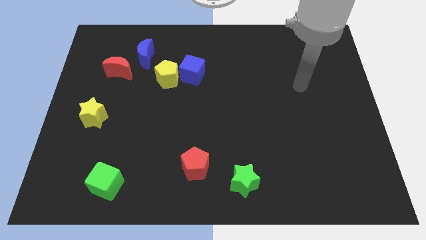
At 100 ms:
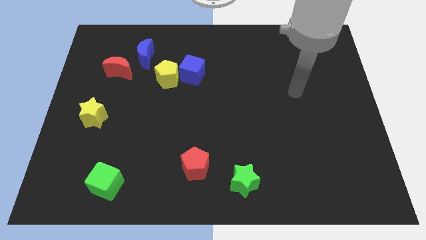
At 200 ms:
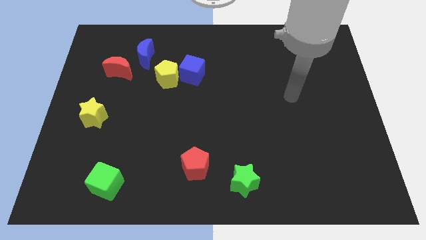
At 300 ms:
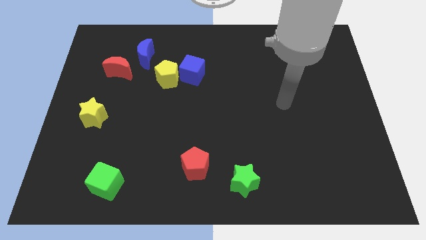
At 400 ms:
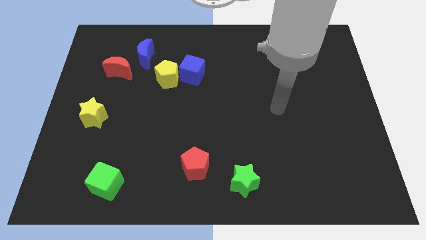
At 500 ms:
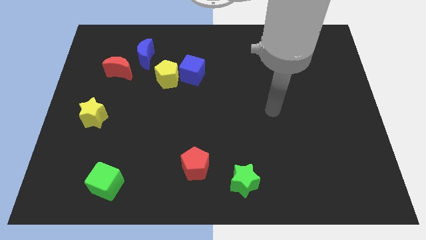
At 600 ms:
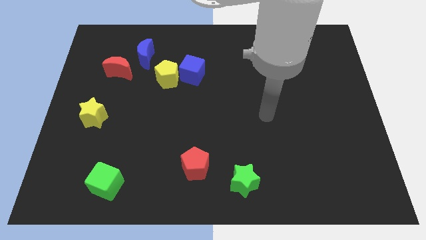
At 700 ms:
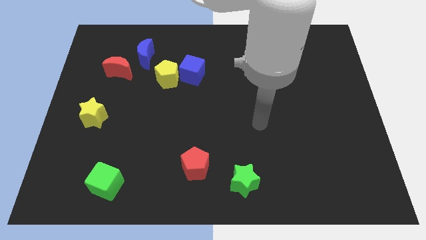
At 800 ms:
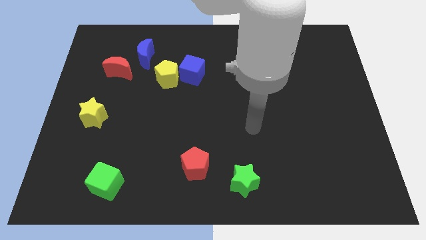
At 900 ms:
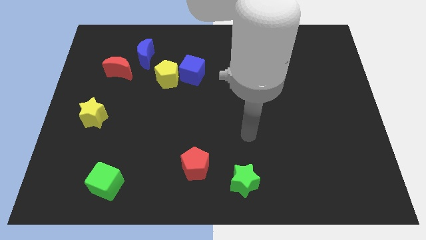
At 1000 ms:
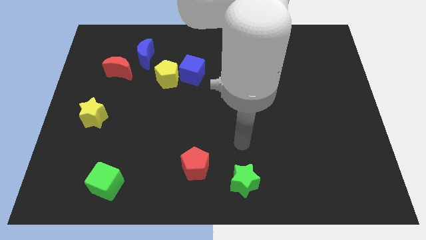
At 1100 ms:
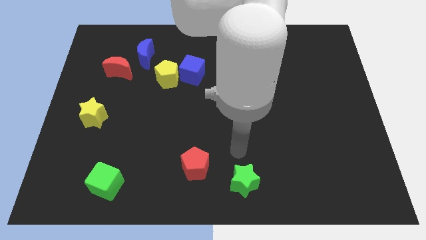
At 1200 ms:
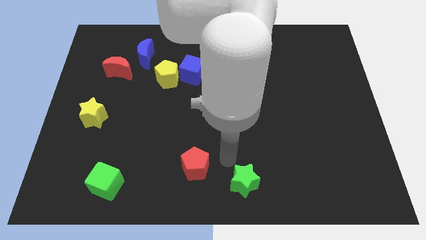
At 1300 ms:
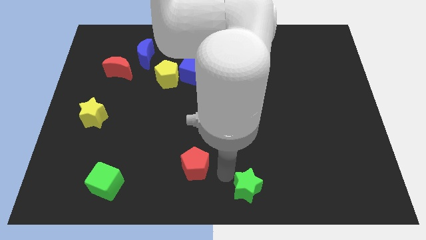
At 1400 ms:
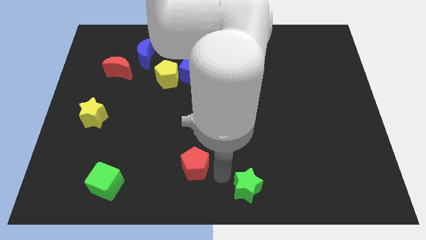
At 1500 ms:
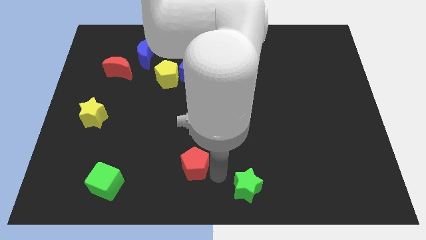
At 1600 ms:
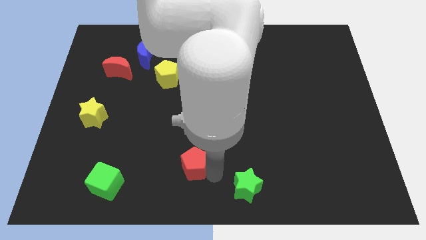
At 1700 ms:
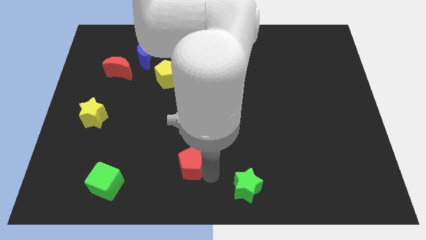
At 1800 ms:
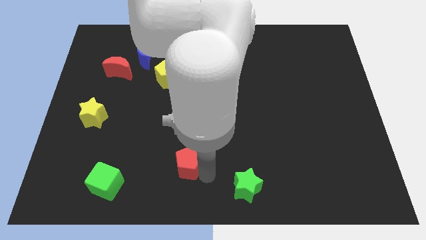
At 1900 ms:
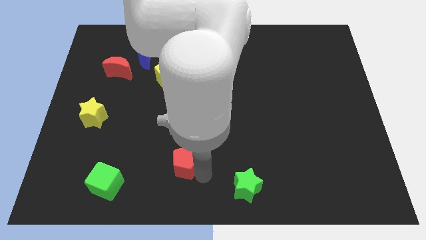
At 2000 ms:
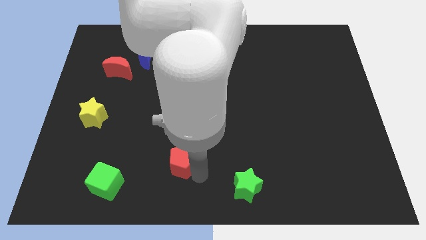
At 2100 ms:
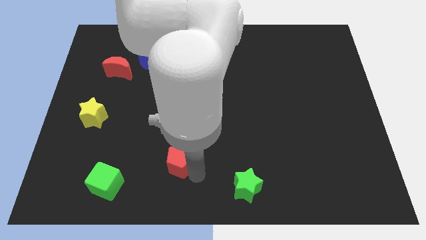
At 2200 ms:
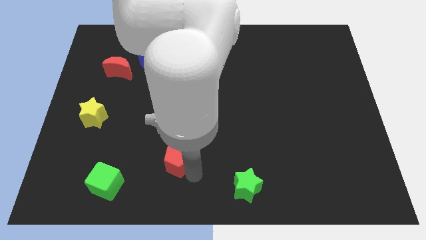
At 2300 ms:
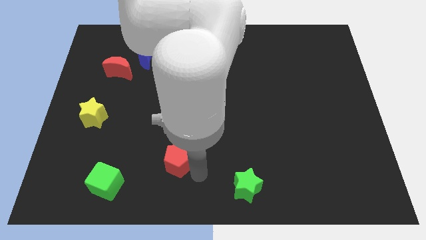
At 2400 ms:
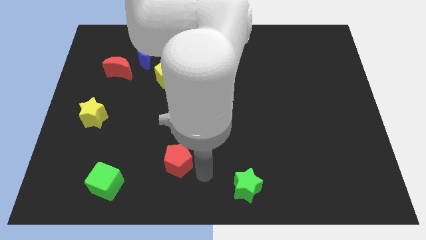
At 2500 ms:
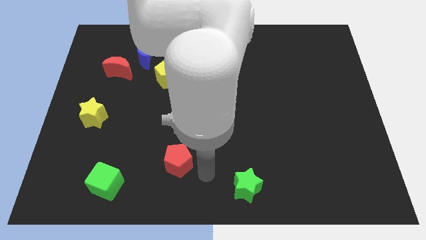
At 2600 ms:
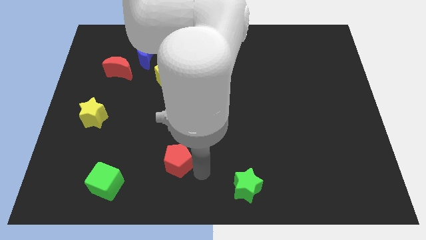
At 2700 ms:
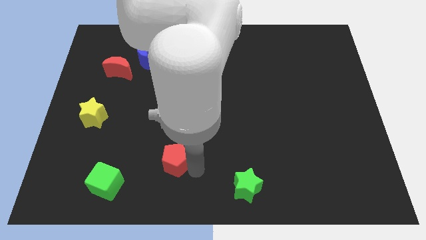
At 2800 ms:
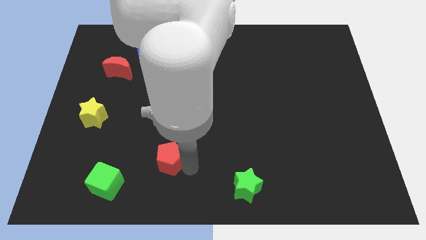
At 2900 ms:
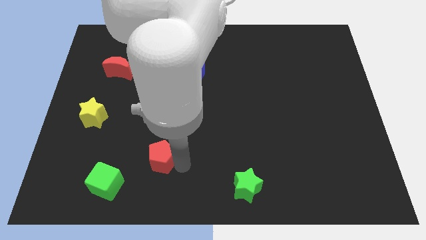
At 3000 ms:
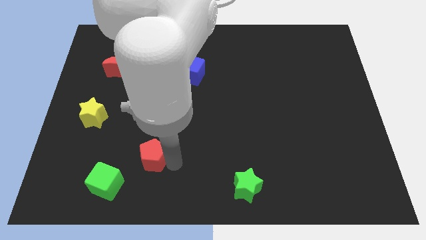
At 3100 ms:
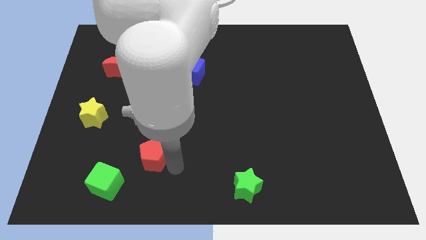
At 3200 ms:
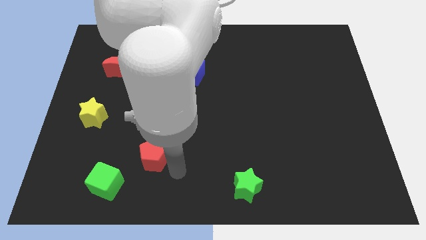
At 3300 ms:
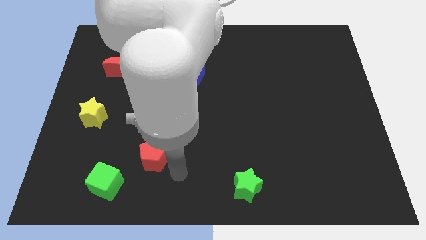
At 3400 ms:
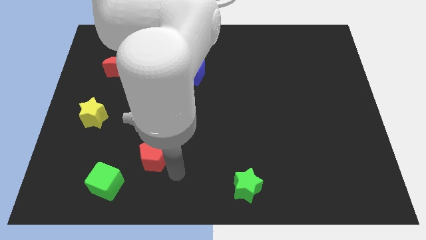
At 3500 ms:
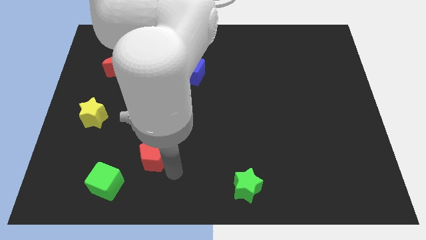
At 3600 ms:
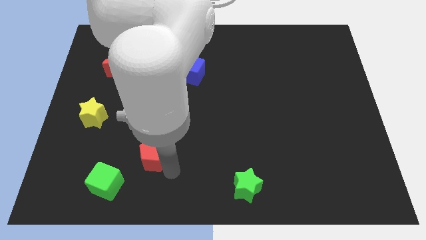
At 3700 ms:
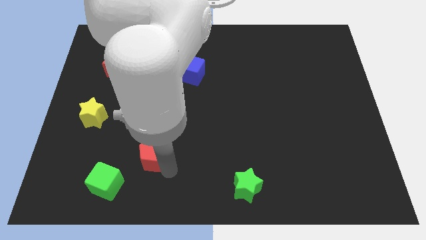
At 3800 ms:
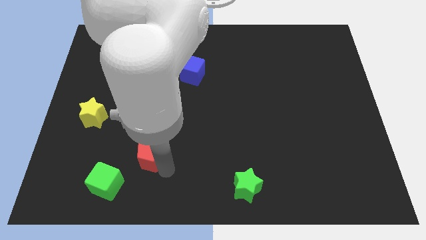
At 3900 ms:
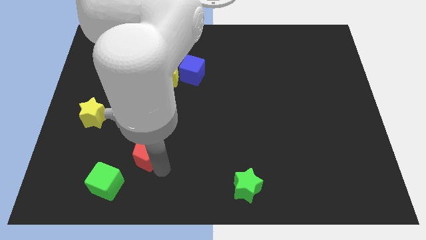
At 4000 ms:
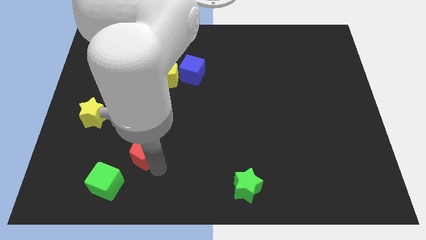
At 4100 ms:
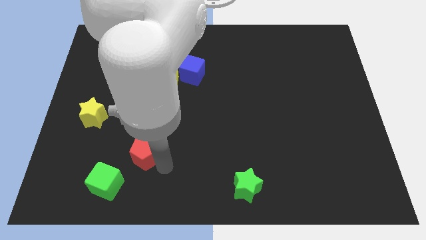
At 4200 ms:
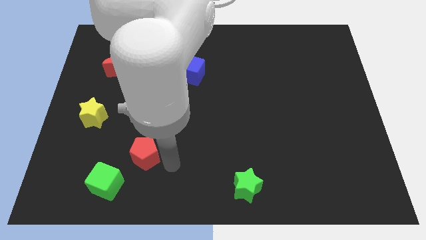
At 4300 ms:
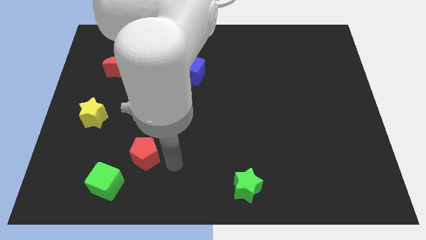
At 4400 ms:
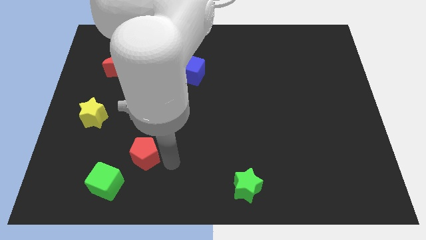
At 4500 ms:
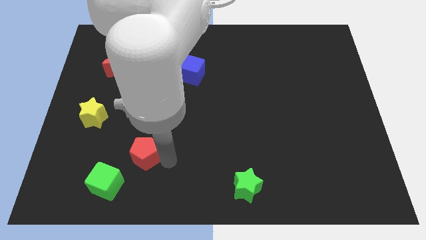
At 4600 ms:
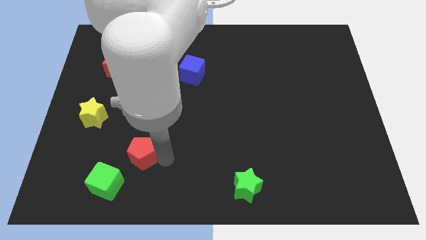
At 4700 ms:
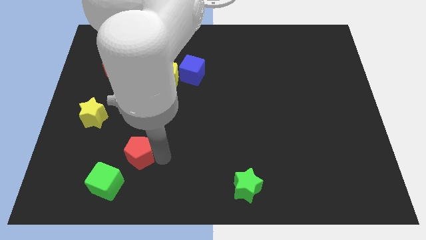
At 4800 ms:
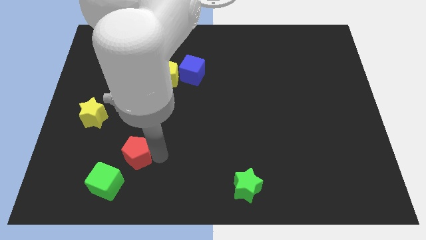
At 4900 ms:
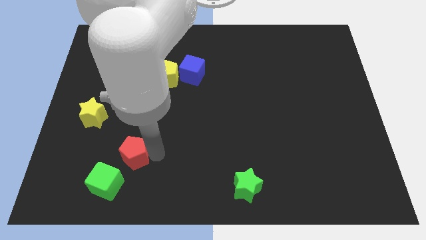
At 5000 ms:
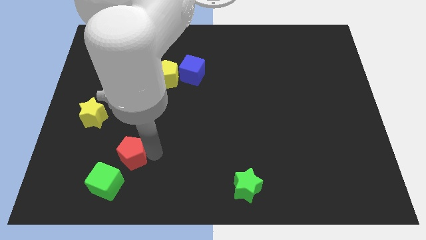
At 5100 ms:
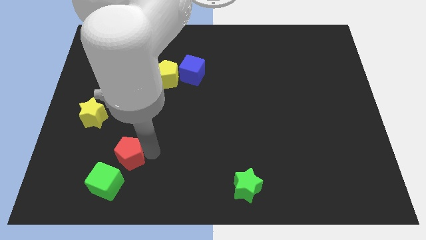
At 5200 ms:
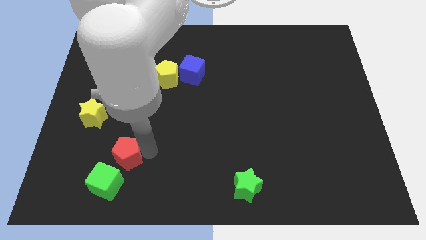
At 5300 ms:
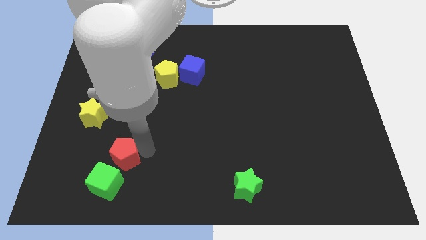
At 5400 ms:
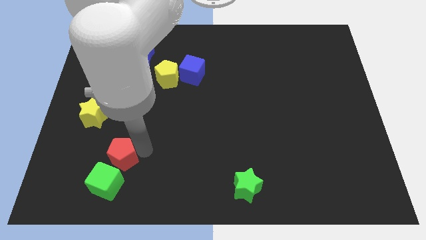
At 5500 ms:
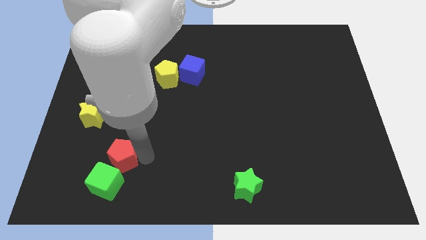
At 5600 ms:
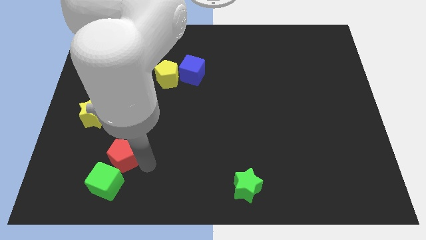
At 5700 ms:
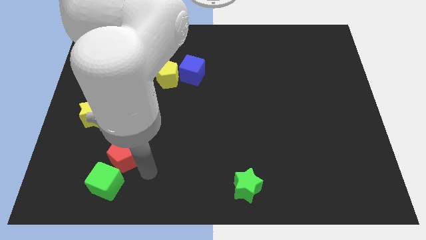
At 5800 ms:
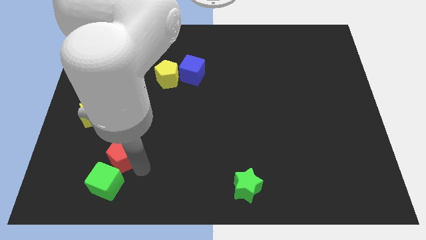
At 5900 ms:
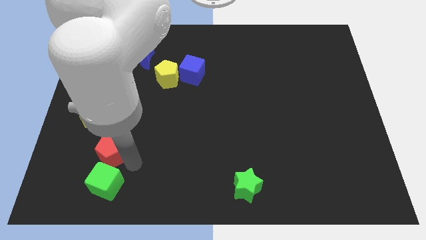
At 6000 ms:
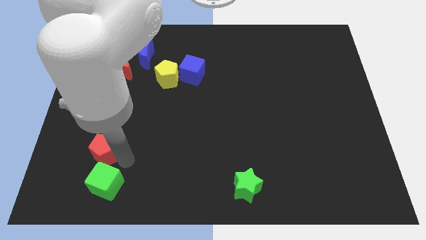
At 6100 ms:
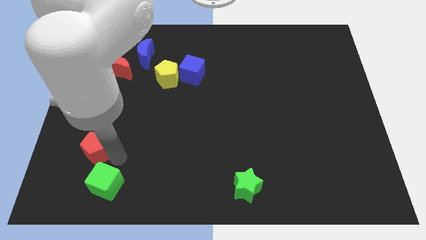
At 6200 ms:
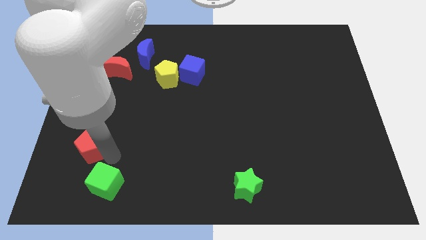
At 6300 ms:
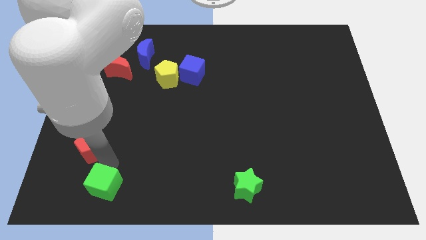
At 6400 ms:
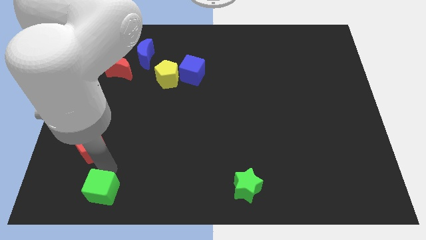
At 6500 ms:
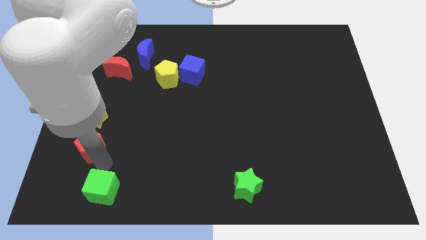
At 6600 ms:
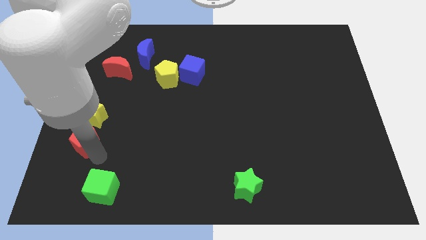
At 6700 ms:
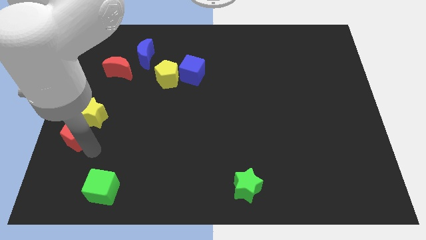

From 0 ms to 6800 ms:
push the red pentagon to the left side of the board

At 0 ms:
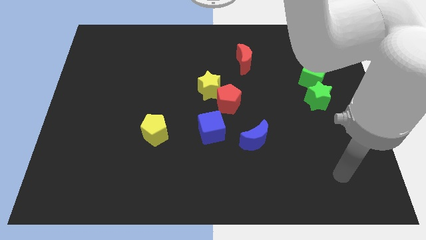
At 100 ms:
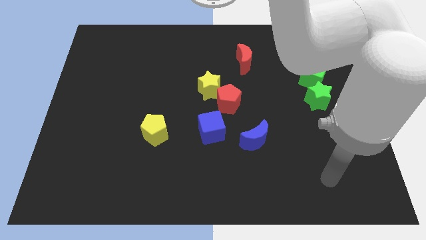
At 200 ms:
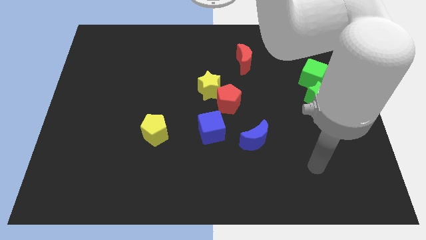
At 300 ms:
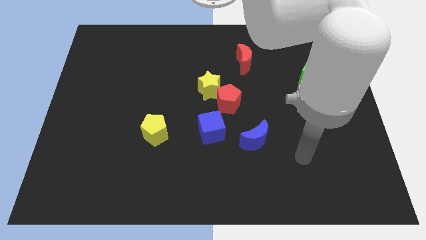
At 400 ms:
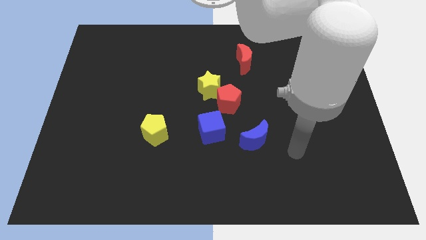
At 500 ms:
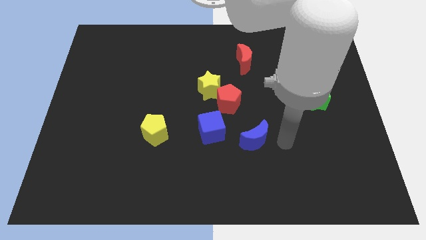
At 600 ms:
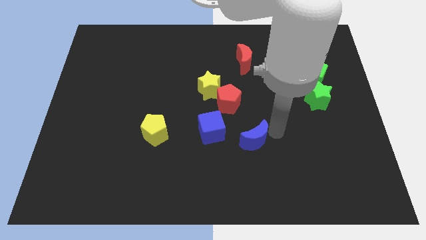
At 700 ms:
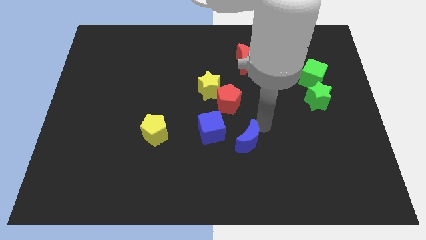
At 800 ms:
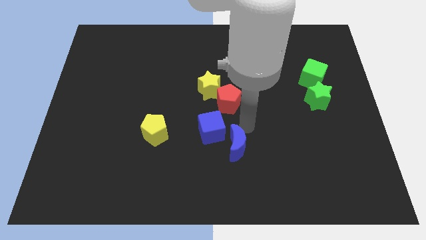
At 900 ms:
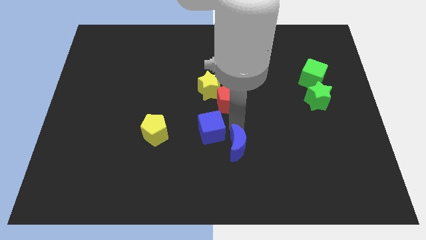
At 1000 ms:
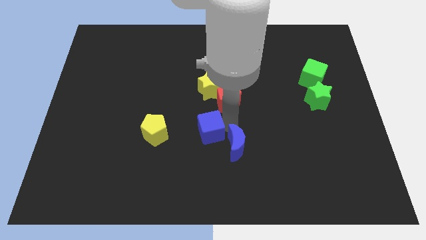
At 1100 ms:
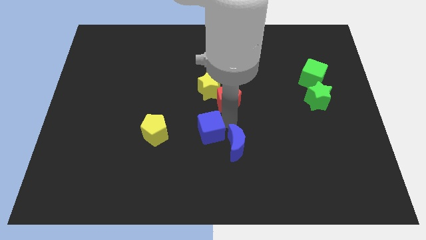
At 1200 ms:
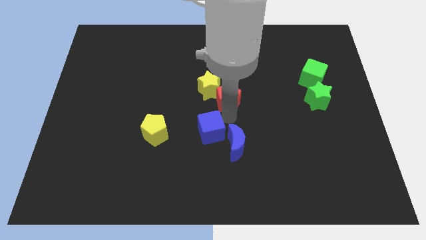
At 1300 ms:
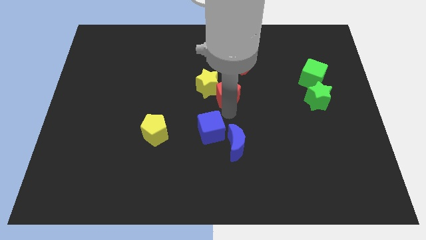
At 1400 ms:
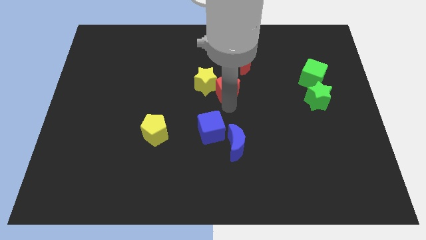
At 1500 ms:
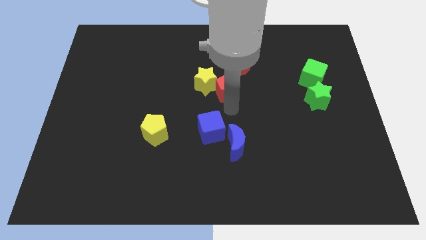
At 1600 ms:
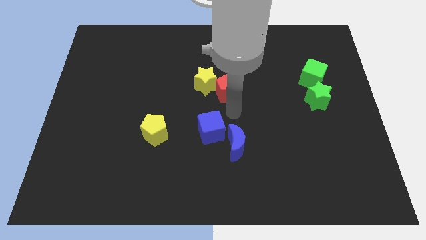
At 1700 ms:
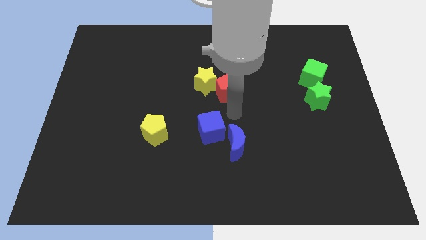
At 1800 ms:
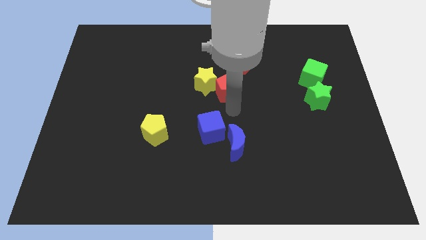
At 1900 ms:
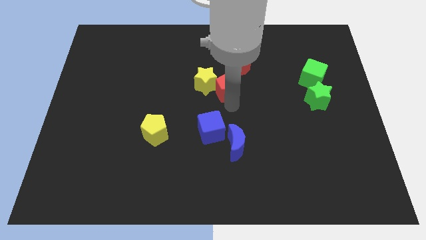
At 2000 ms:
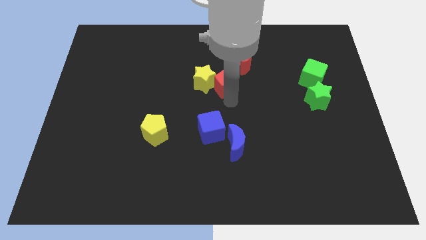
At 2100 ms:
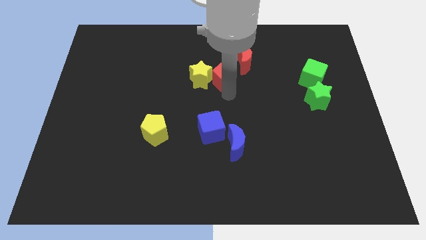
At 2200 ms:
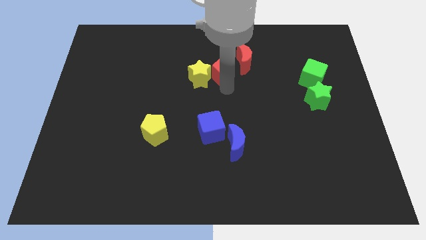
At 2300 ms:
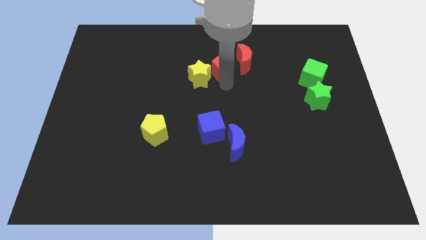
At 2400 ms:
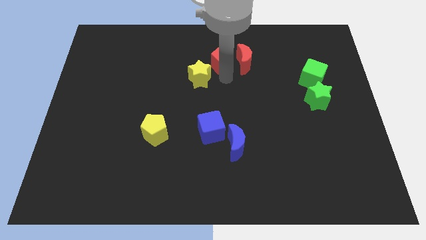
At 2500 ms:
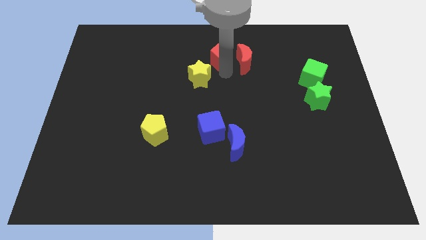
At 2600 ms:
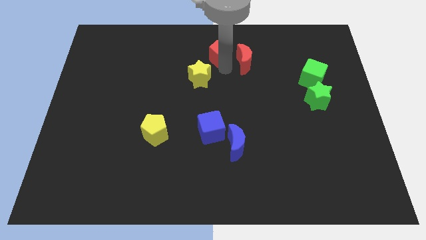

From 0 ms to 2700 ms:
move the red pentagon to the top side
